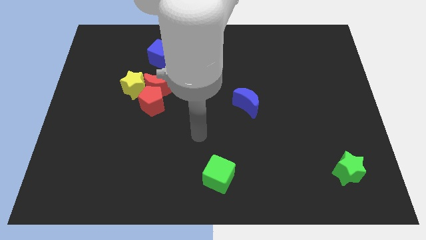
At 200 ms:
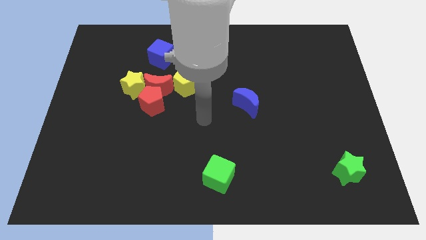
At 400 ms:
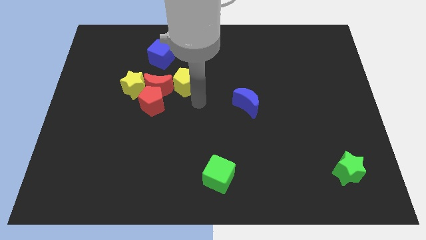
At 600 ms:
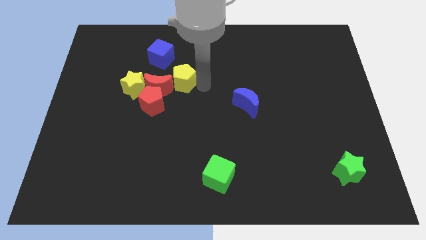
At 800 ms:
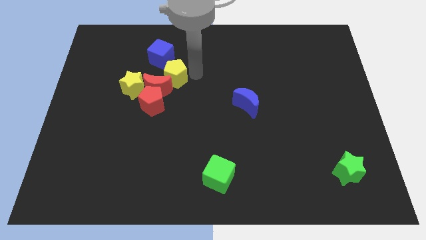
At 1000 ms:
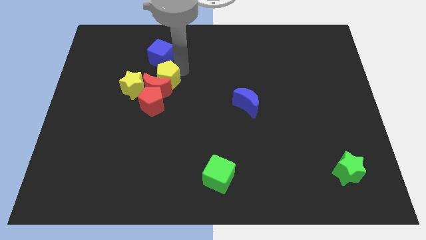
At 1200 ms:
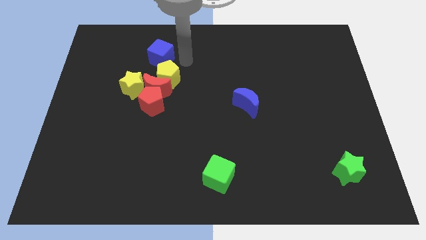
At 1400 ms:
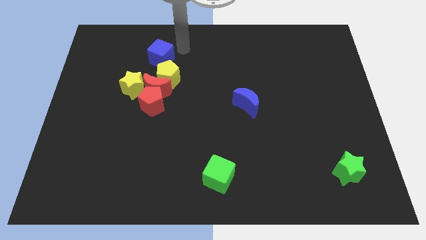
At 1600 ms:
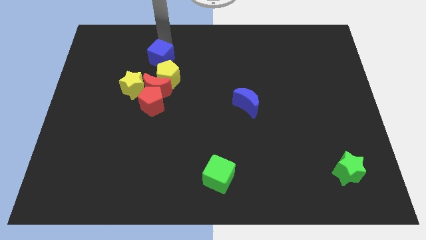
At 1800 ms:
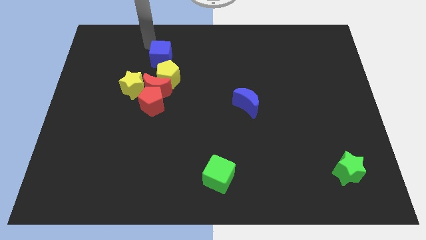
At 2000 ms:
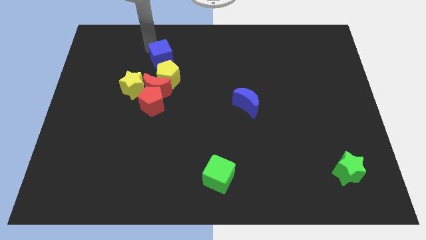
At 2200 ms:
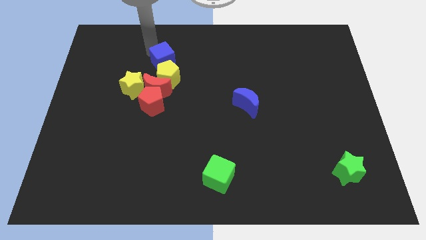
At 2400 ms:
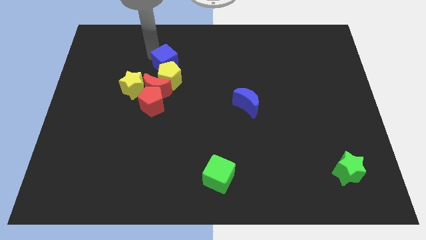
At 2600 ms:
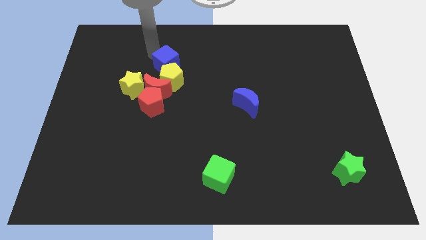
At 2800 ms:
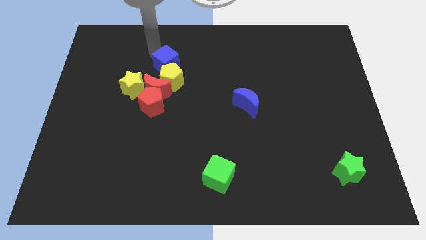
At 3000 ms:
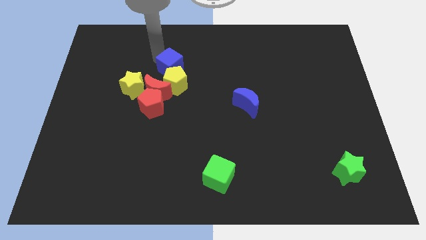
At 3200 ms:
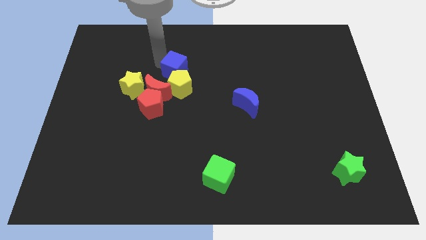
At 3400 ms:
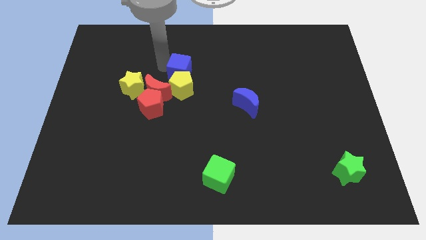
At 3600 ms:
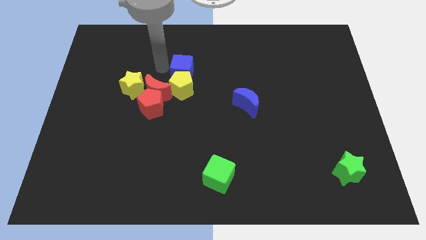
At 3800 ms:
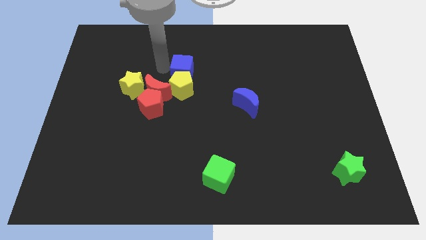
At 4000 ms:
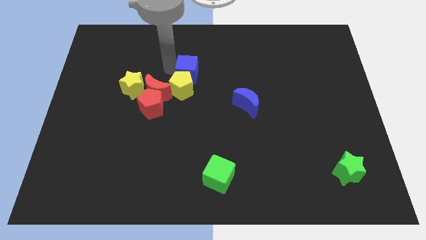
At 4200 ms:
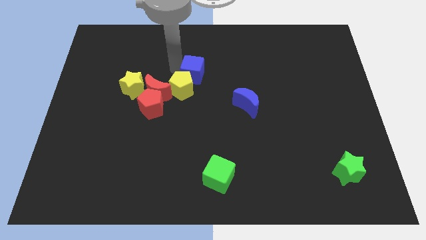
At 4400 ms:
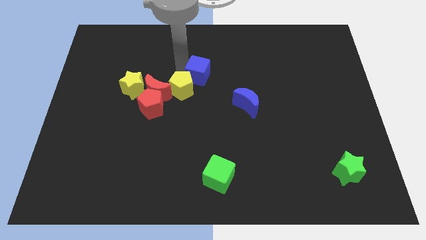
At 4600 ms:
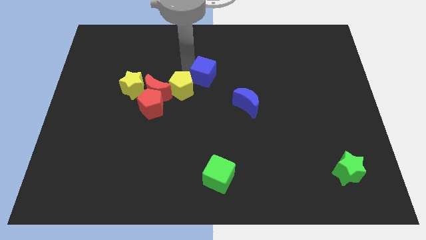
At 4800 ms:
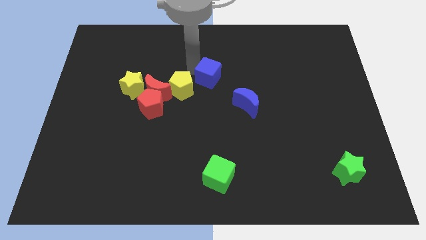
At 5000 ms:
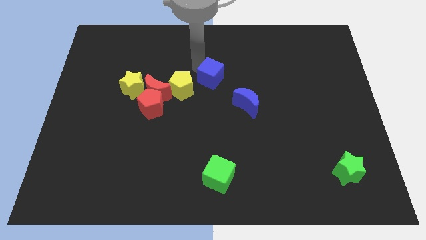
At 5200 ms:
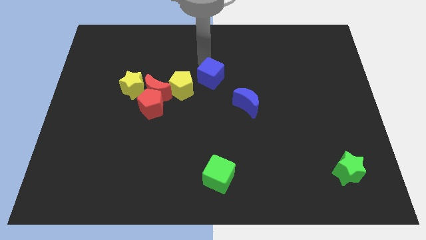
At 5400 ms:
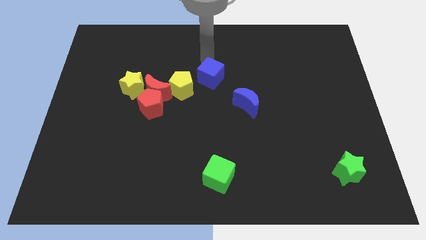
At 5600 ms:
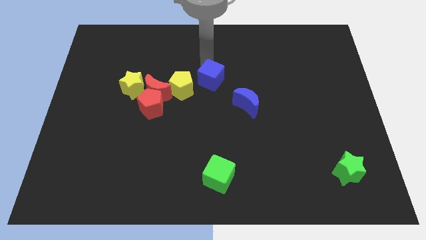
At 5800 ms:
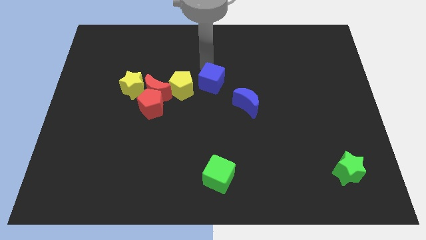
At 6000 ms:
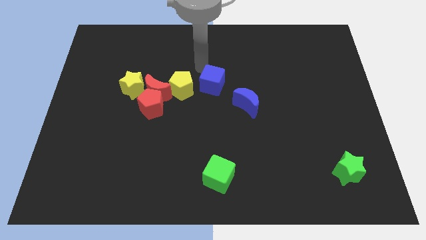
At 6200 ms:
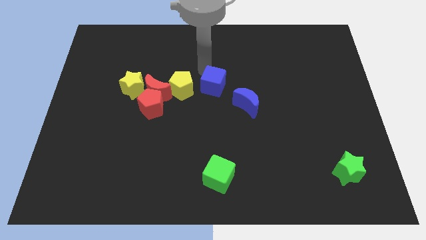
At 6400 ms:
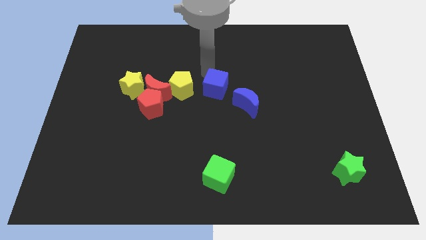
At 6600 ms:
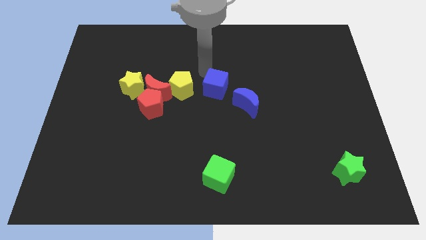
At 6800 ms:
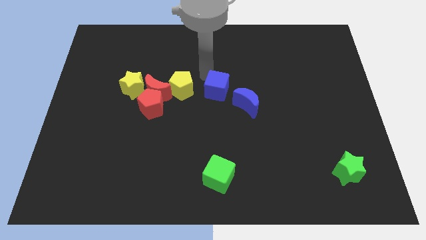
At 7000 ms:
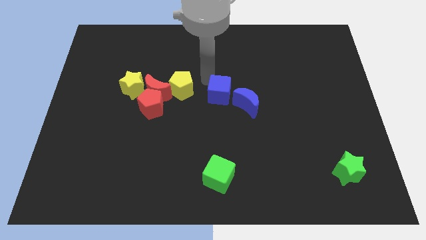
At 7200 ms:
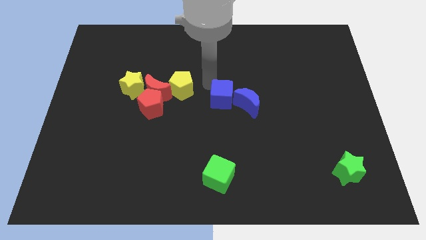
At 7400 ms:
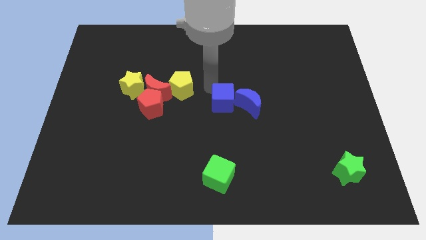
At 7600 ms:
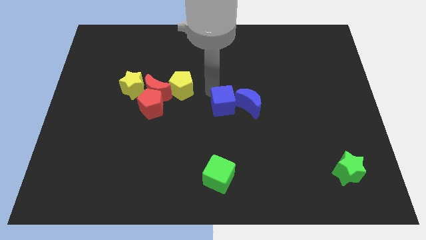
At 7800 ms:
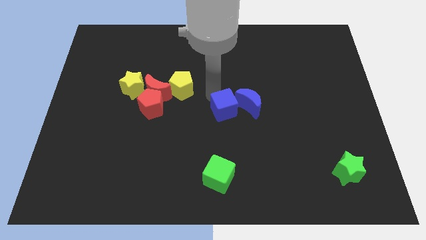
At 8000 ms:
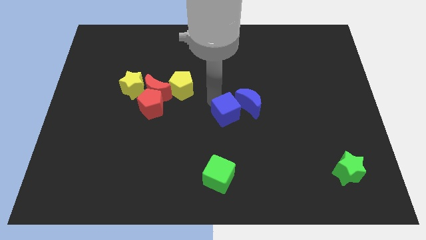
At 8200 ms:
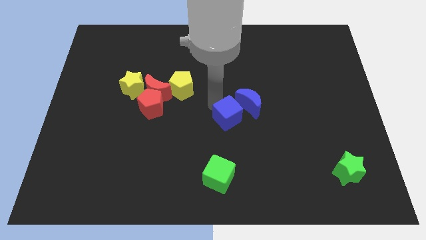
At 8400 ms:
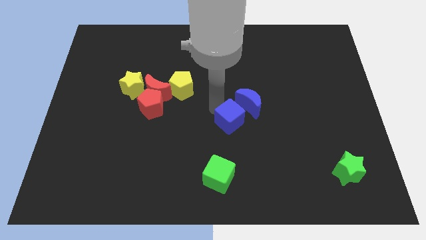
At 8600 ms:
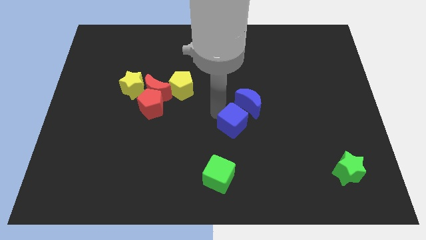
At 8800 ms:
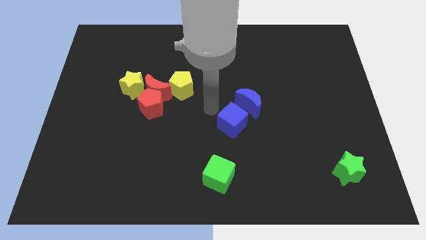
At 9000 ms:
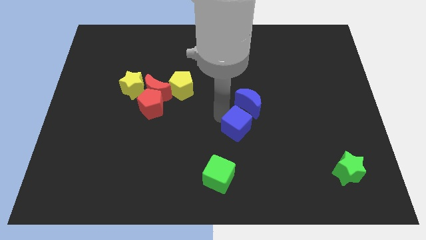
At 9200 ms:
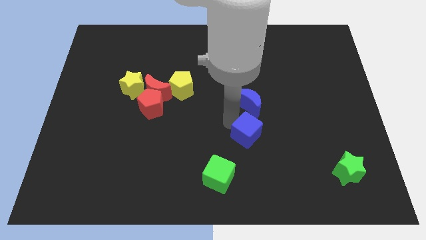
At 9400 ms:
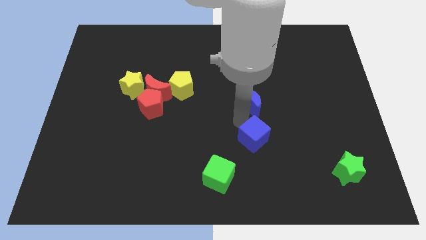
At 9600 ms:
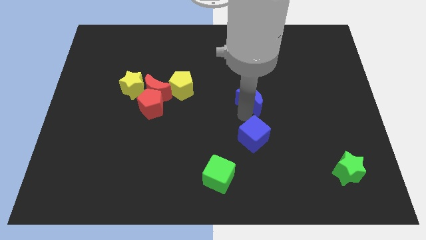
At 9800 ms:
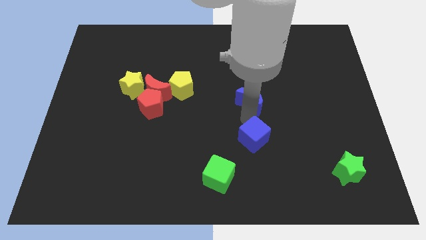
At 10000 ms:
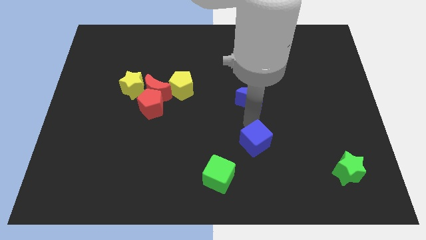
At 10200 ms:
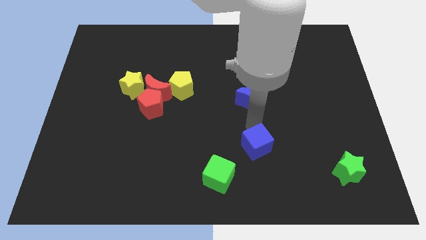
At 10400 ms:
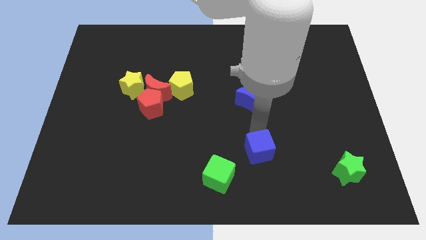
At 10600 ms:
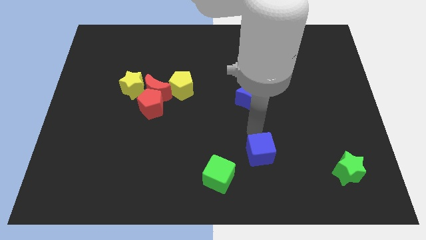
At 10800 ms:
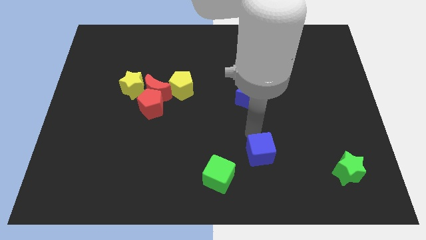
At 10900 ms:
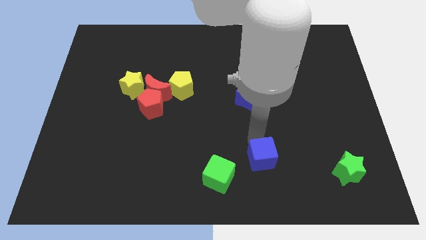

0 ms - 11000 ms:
push the blue cube to the right of the green cube
